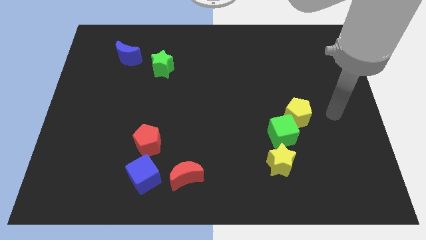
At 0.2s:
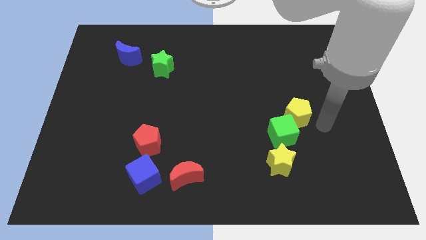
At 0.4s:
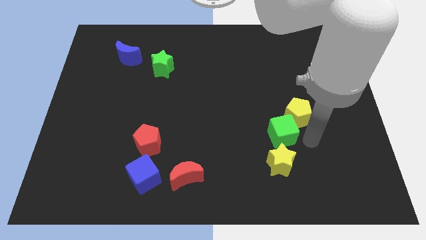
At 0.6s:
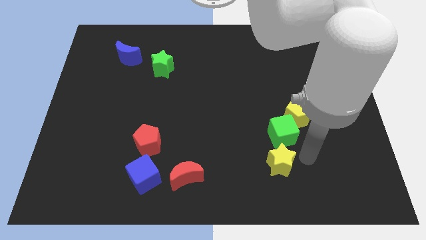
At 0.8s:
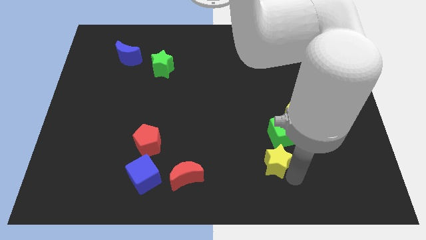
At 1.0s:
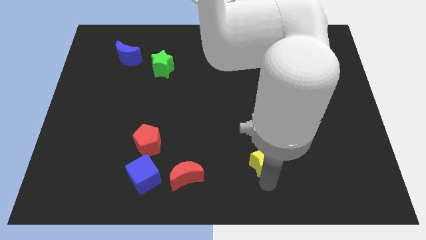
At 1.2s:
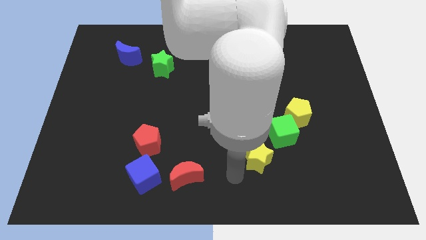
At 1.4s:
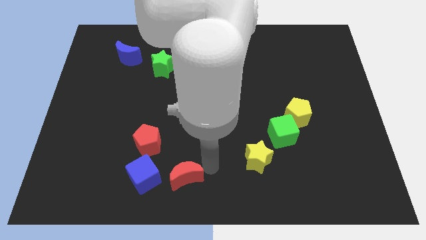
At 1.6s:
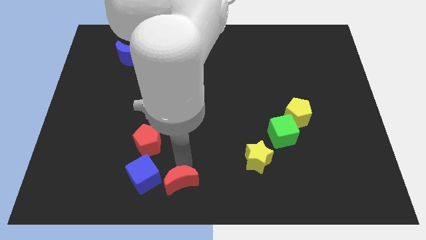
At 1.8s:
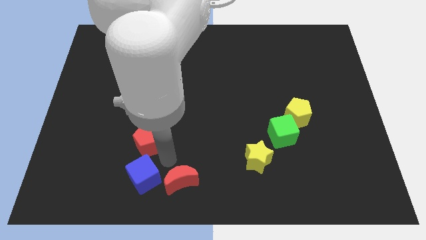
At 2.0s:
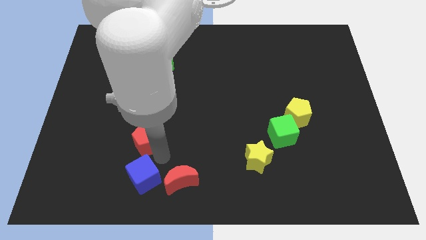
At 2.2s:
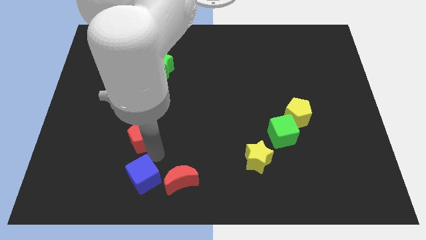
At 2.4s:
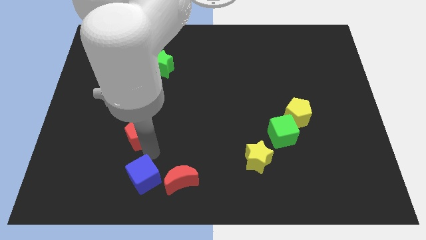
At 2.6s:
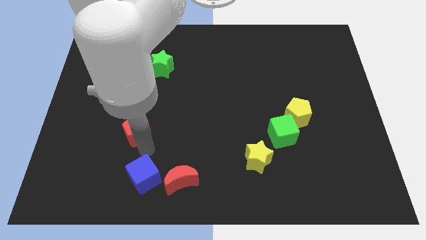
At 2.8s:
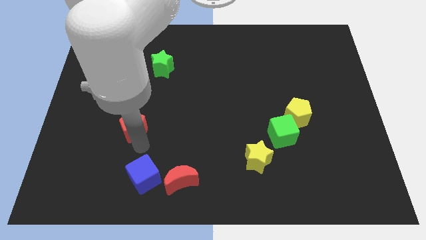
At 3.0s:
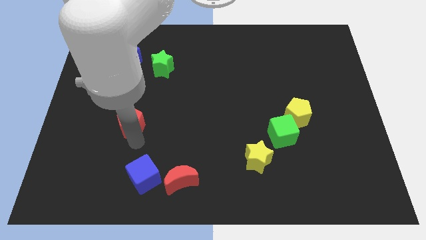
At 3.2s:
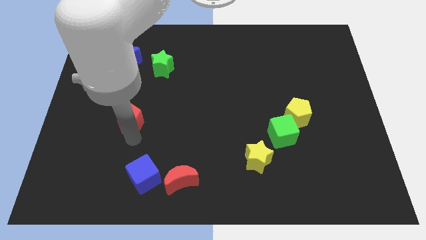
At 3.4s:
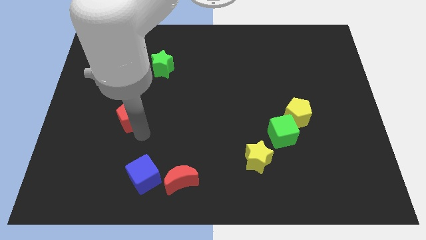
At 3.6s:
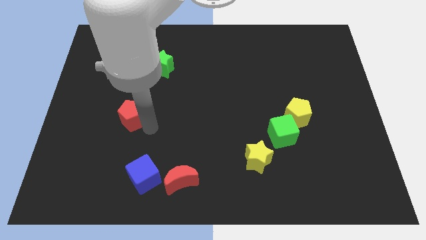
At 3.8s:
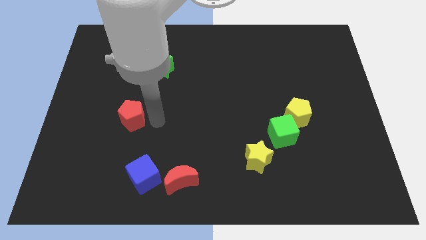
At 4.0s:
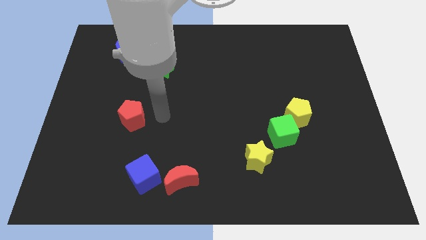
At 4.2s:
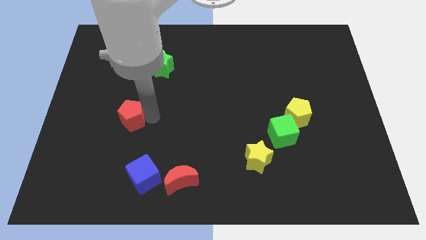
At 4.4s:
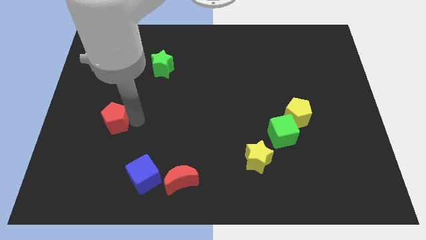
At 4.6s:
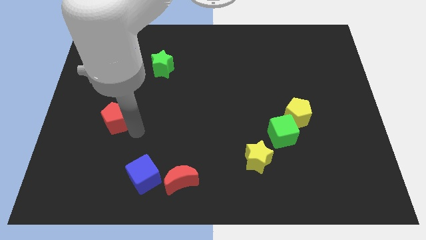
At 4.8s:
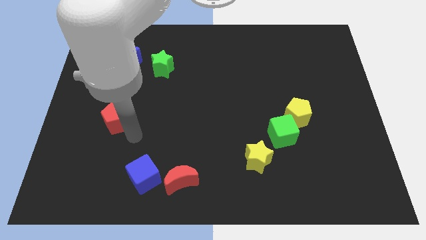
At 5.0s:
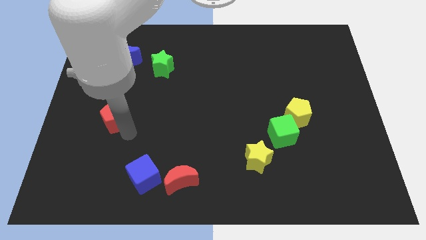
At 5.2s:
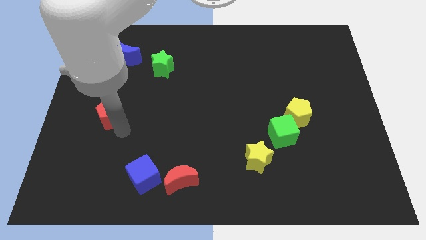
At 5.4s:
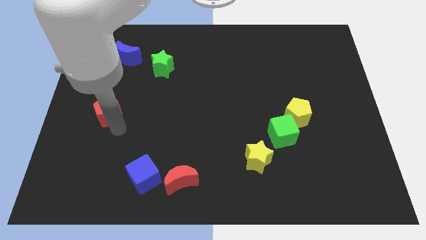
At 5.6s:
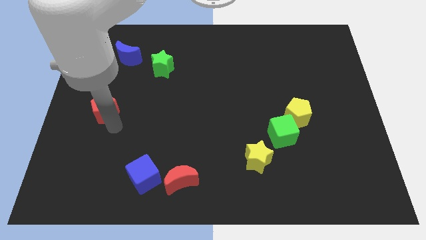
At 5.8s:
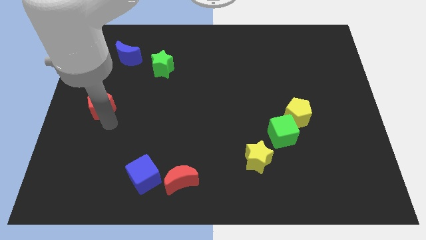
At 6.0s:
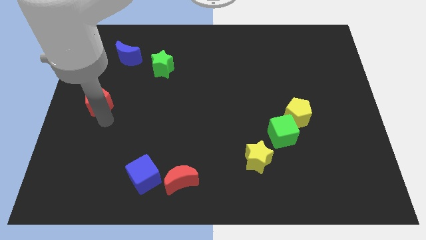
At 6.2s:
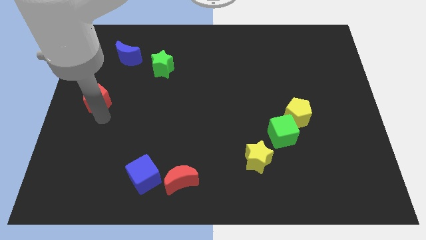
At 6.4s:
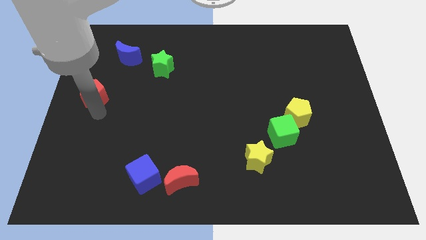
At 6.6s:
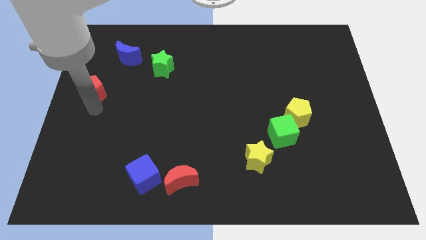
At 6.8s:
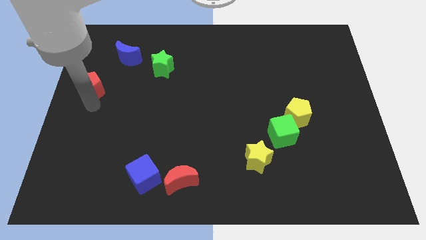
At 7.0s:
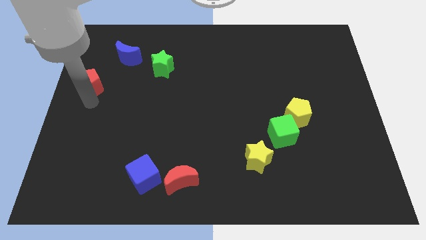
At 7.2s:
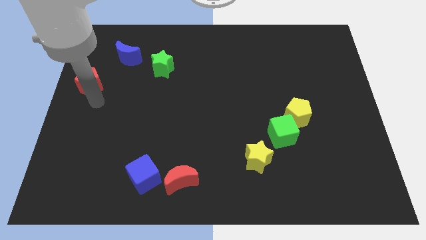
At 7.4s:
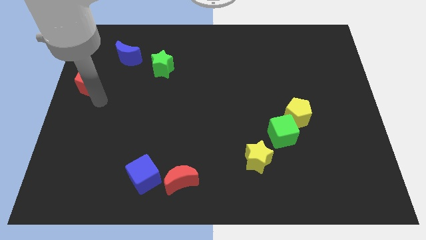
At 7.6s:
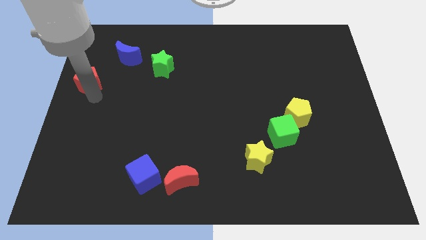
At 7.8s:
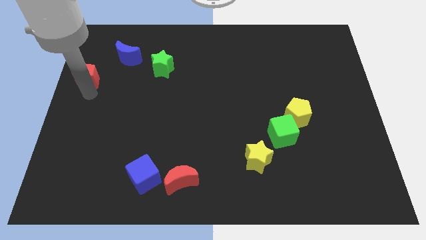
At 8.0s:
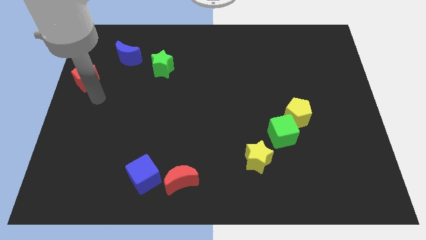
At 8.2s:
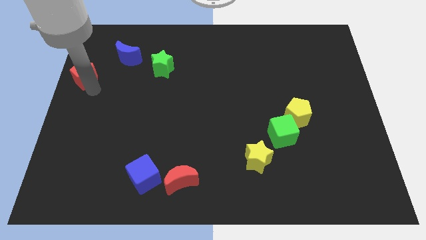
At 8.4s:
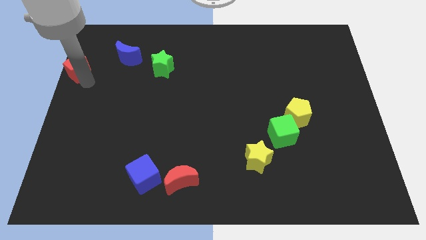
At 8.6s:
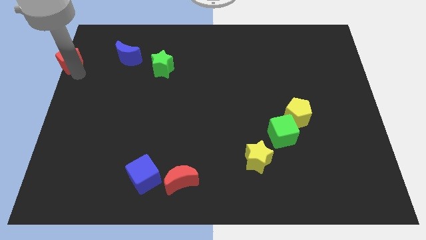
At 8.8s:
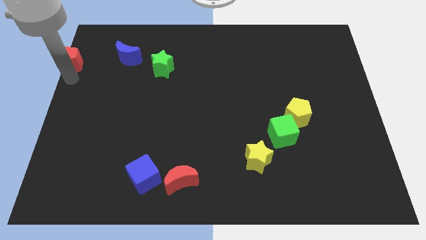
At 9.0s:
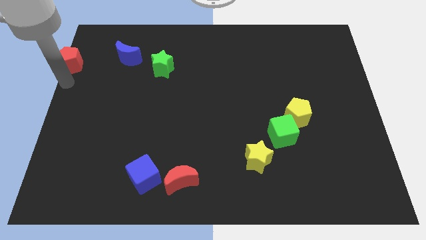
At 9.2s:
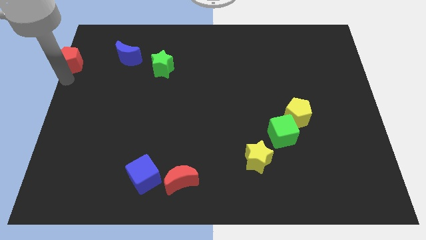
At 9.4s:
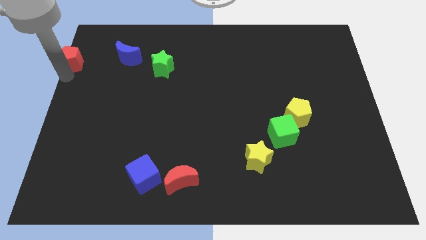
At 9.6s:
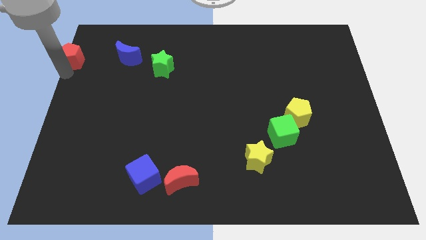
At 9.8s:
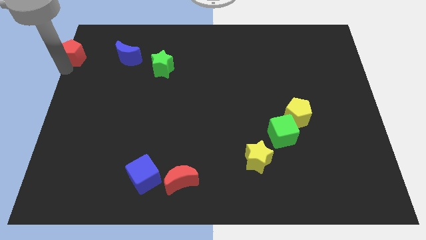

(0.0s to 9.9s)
put the red pentagon to the upper left corner

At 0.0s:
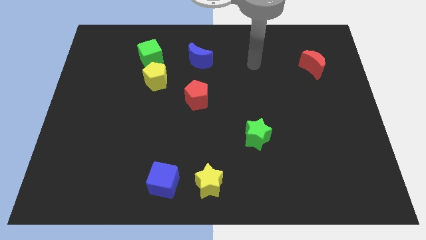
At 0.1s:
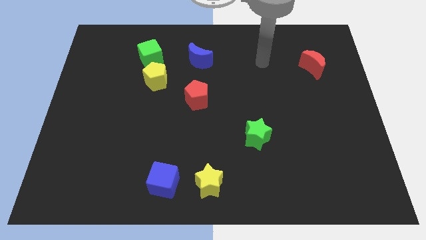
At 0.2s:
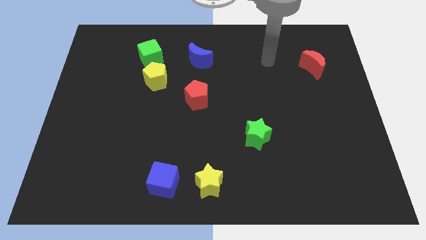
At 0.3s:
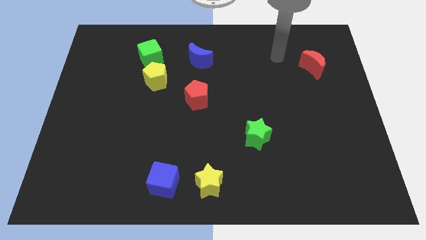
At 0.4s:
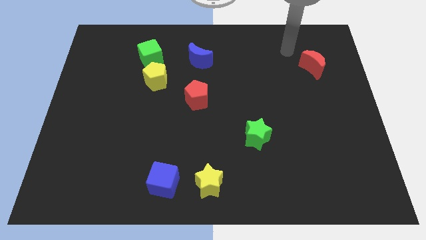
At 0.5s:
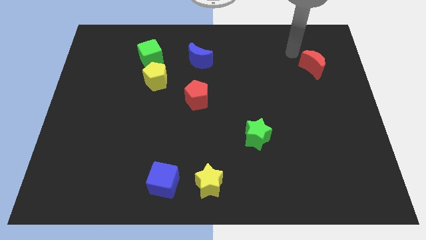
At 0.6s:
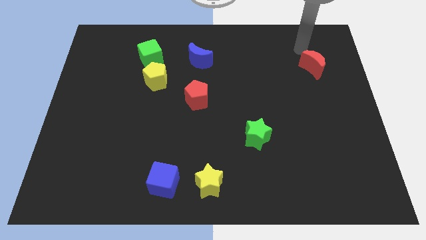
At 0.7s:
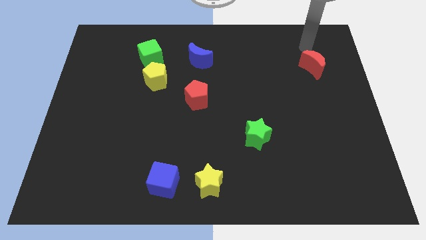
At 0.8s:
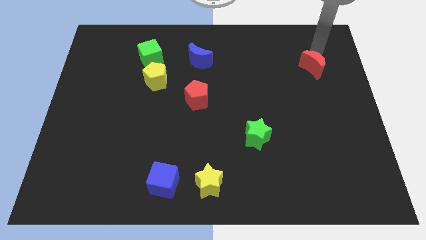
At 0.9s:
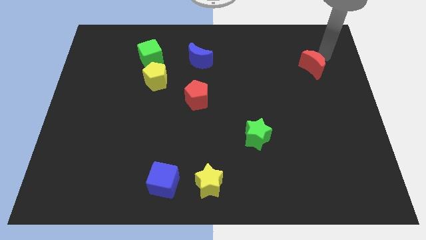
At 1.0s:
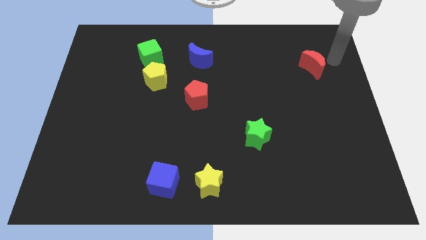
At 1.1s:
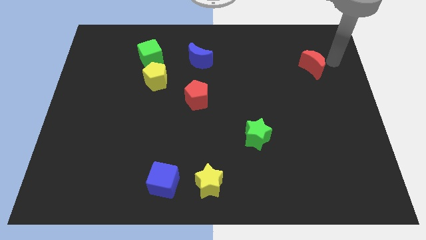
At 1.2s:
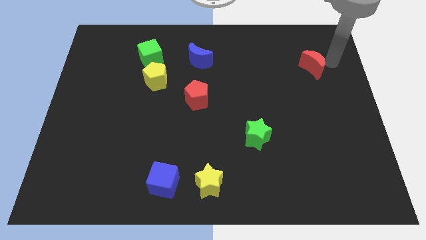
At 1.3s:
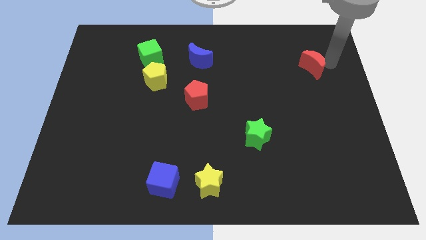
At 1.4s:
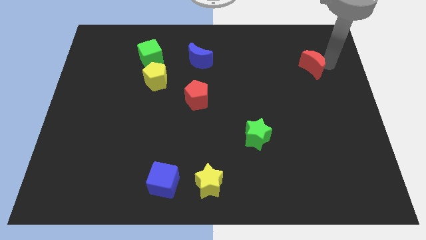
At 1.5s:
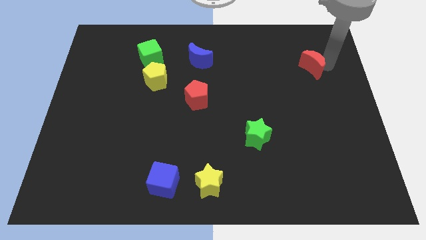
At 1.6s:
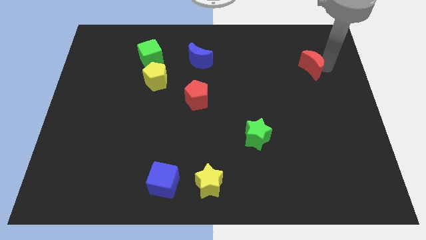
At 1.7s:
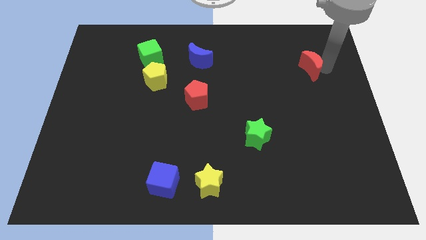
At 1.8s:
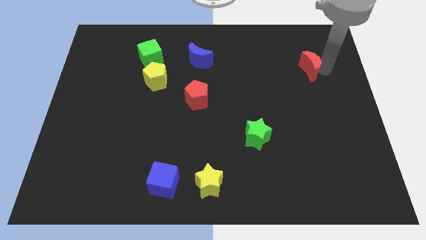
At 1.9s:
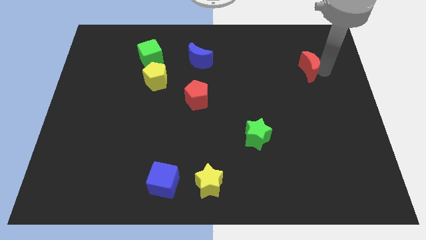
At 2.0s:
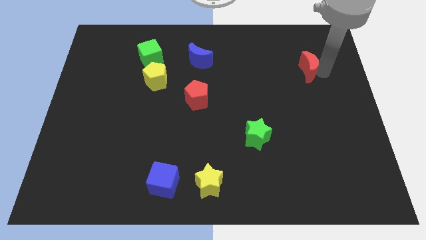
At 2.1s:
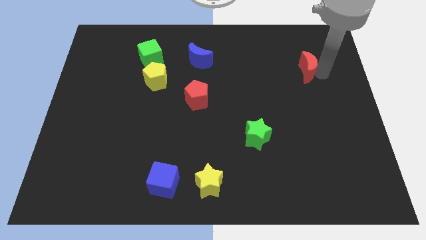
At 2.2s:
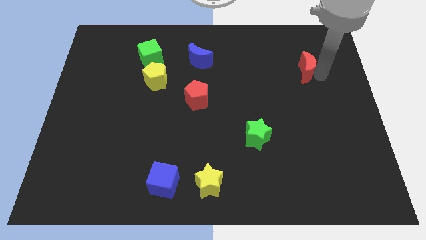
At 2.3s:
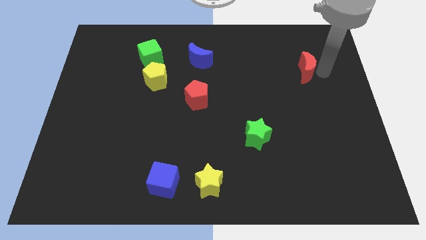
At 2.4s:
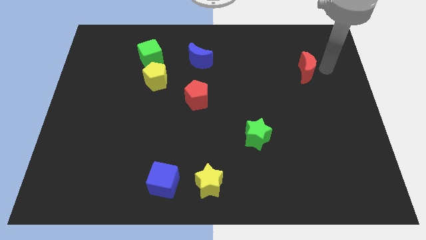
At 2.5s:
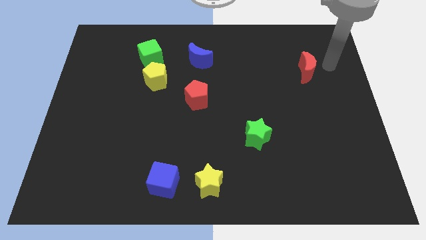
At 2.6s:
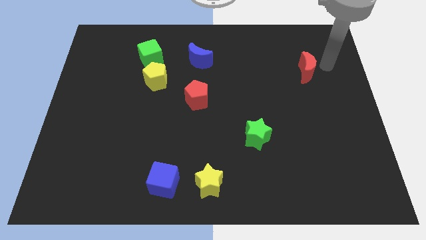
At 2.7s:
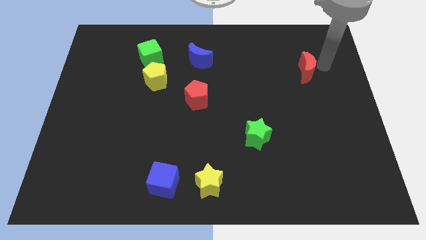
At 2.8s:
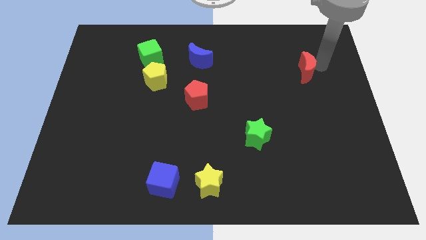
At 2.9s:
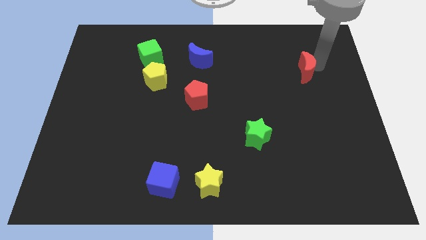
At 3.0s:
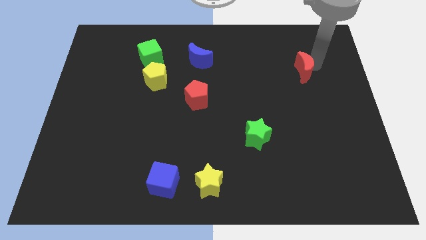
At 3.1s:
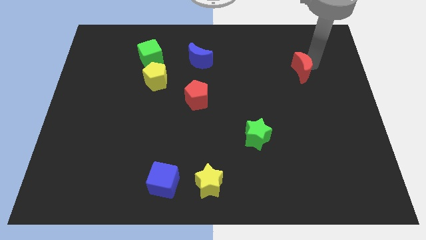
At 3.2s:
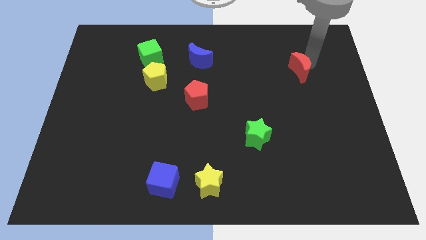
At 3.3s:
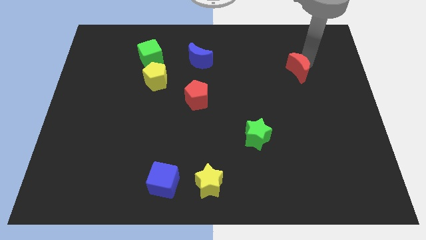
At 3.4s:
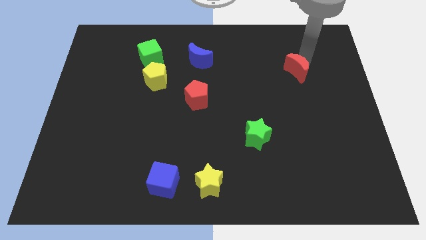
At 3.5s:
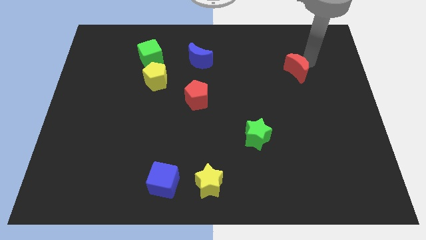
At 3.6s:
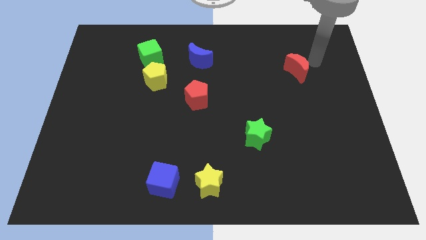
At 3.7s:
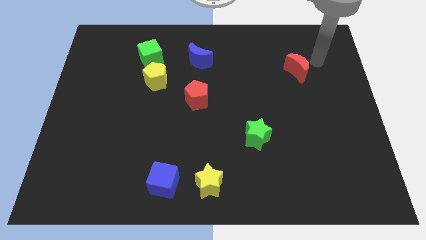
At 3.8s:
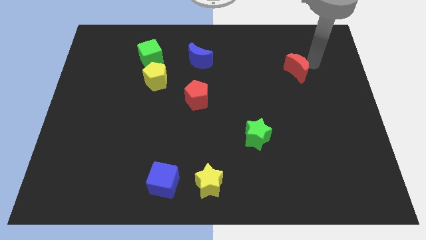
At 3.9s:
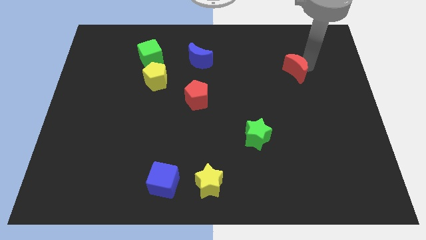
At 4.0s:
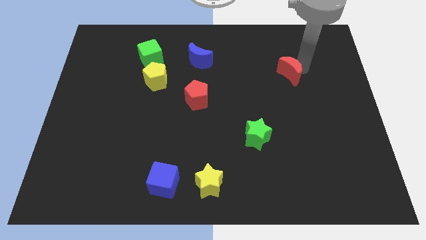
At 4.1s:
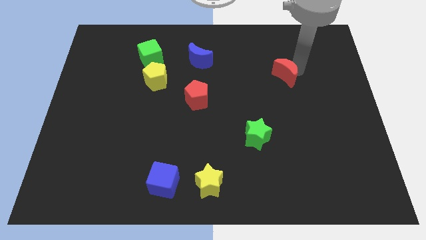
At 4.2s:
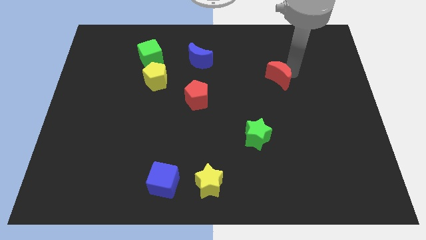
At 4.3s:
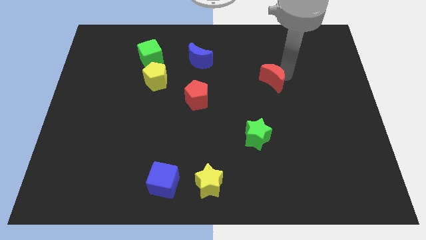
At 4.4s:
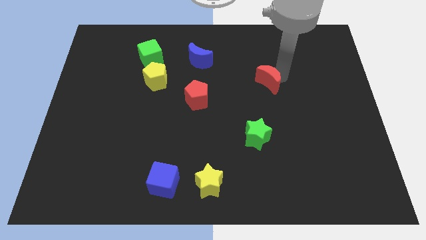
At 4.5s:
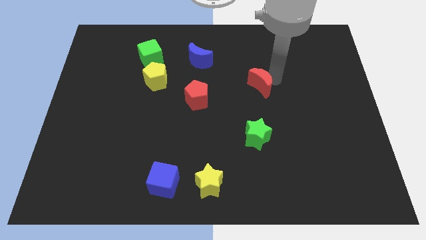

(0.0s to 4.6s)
push the red moon to the center
